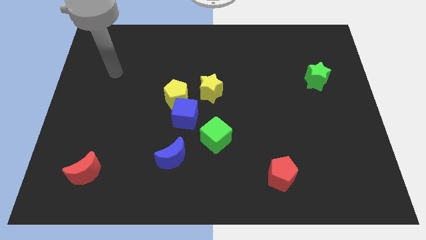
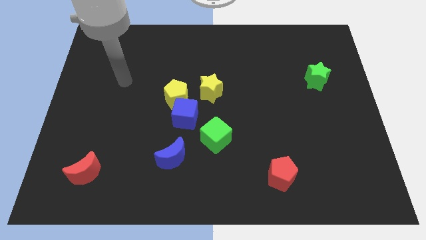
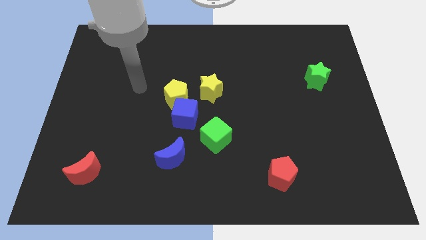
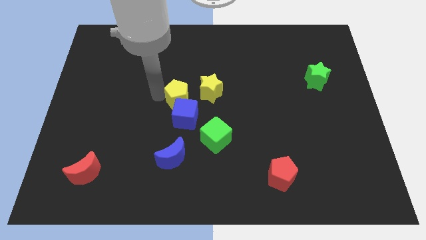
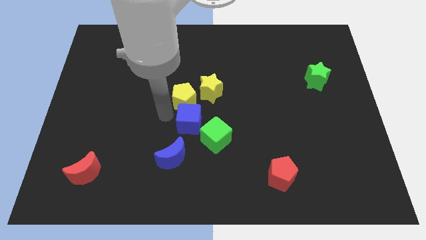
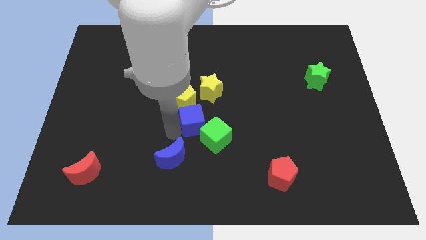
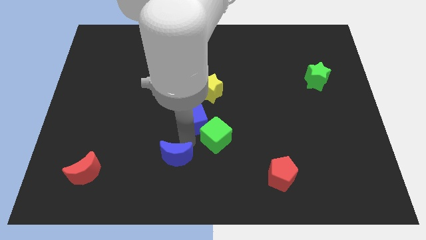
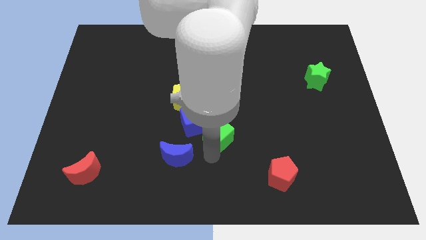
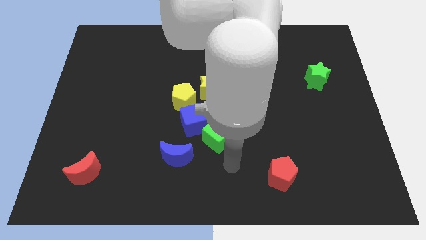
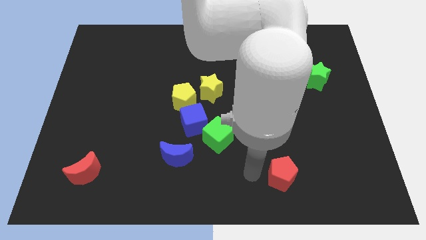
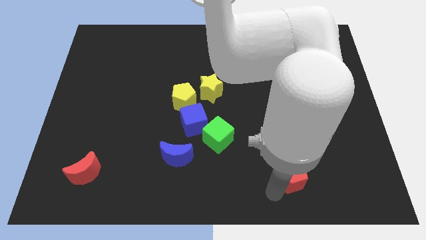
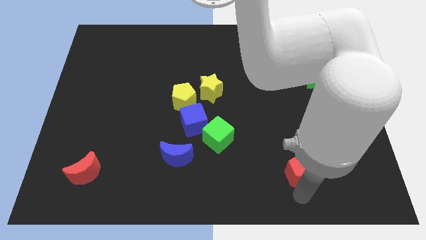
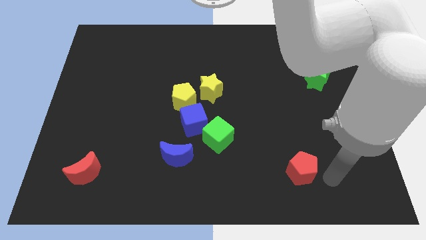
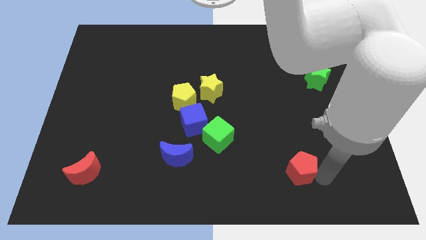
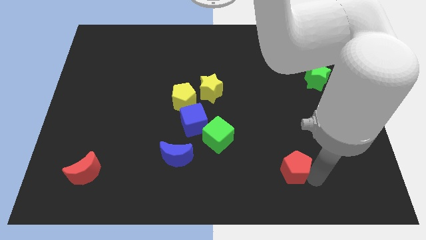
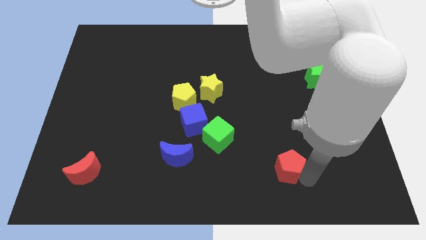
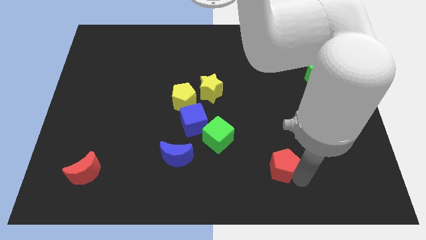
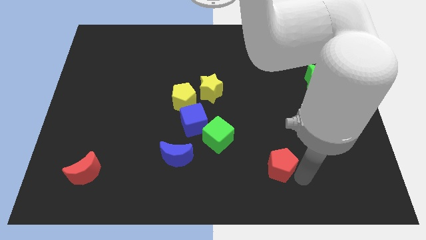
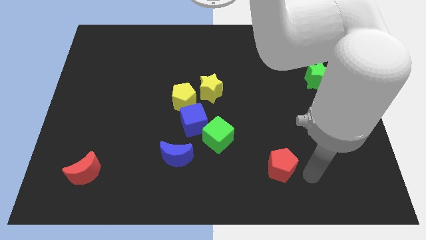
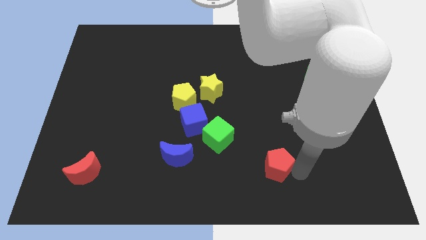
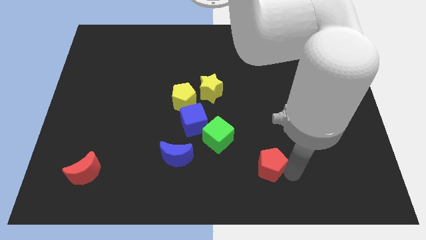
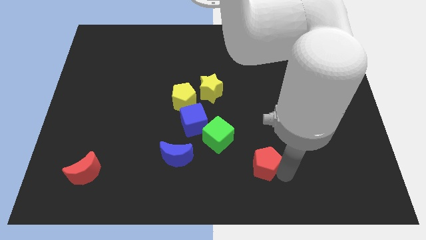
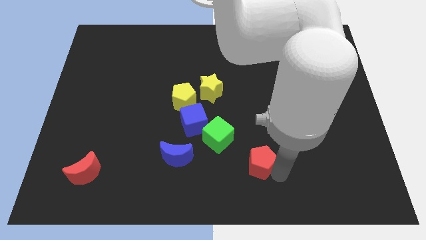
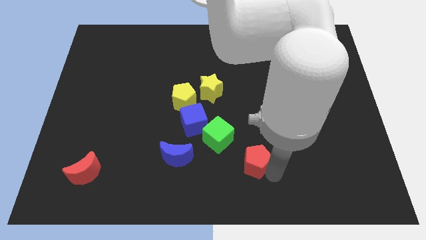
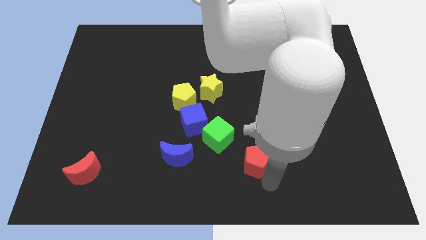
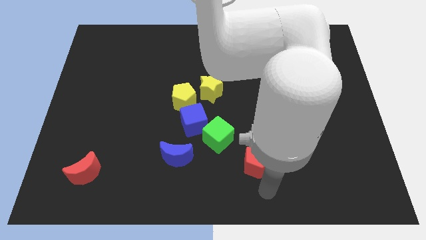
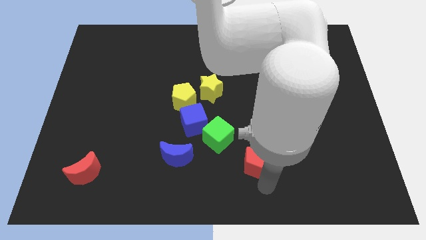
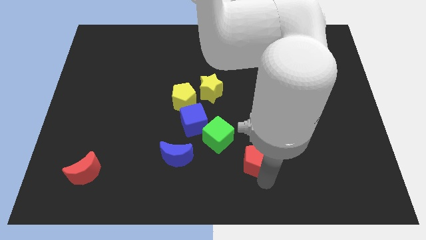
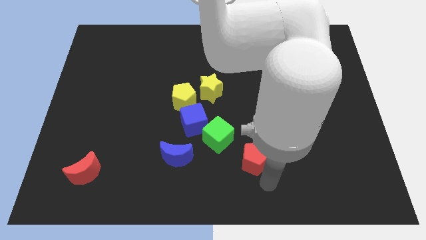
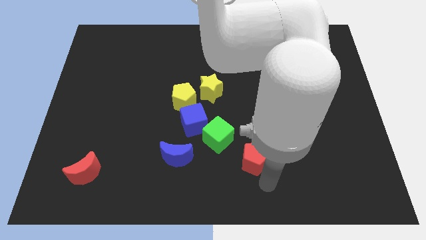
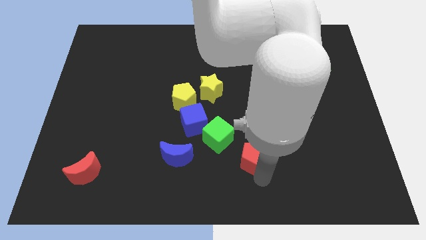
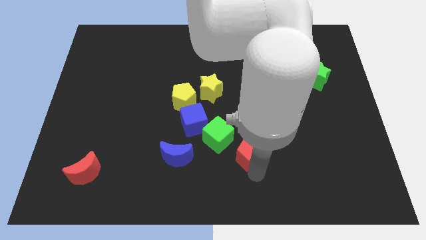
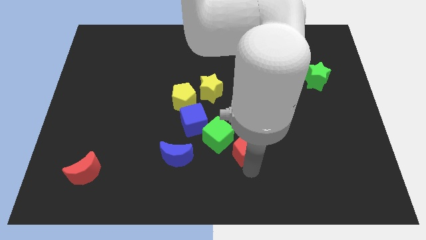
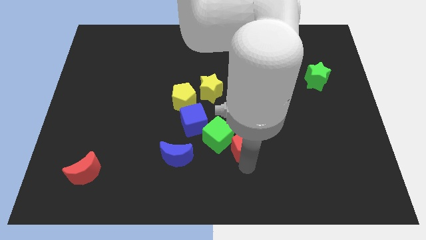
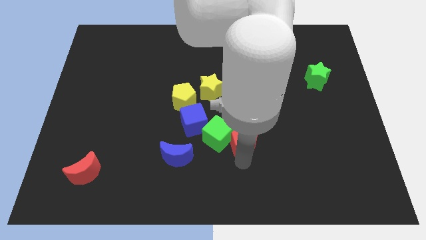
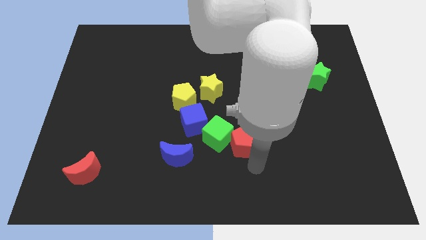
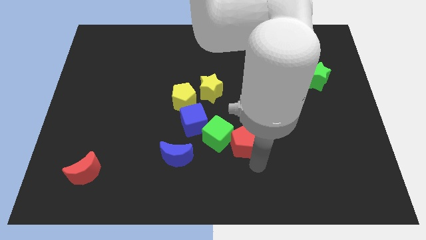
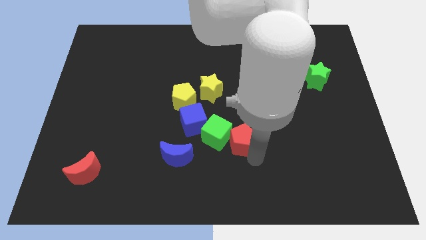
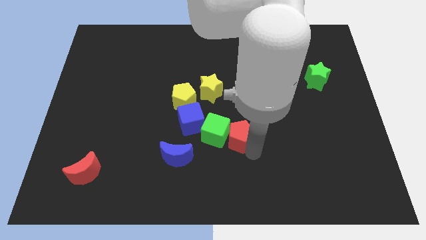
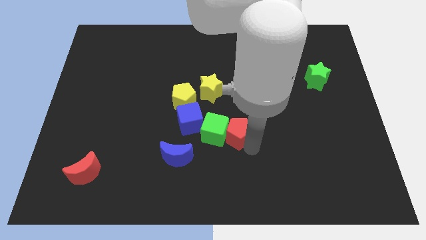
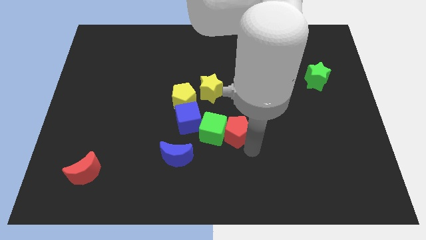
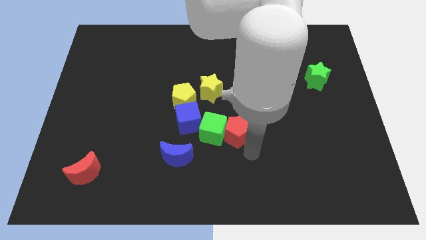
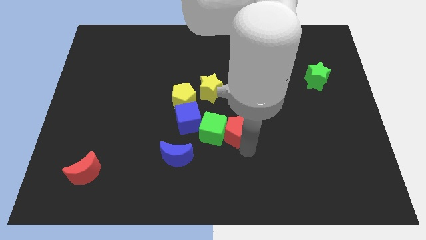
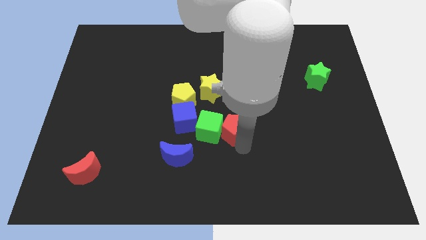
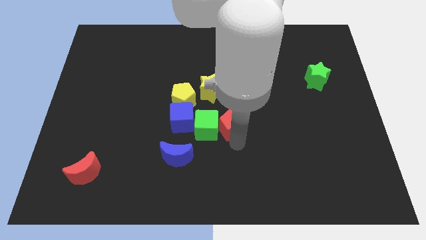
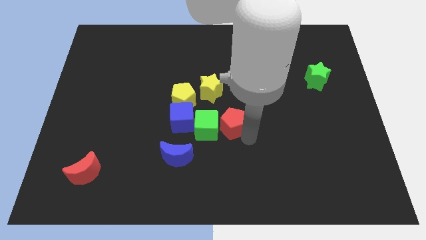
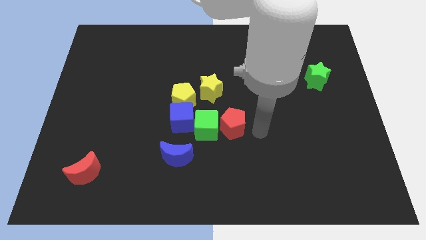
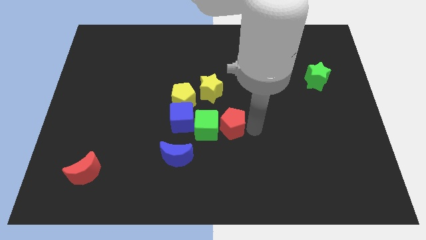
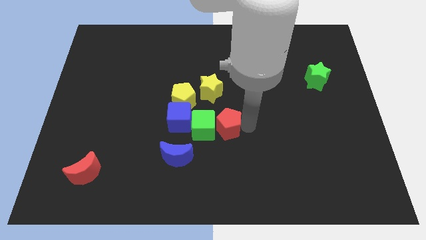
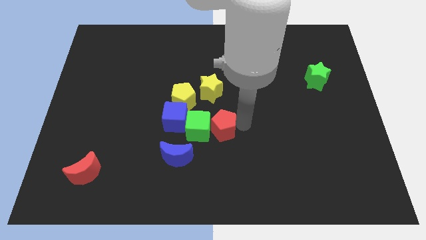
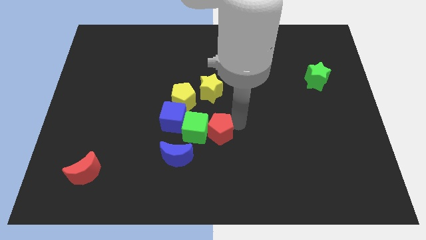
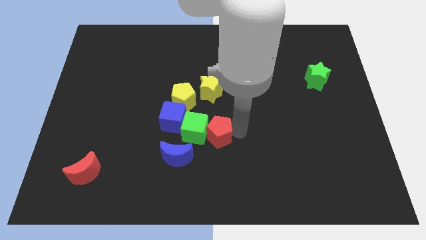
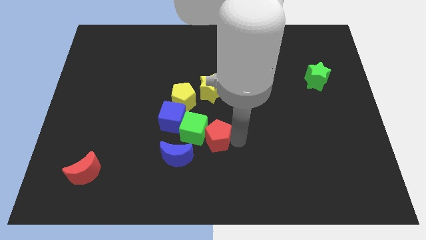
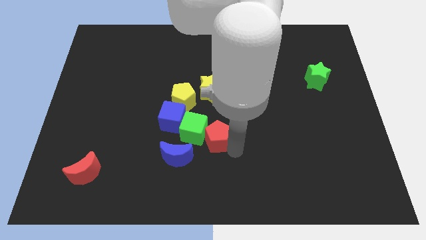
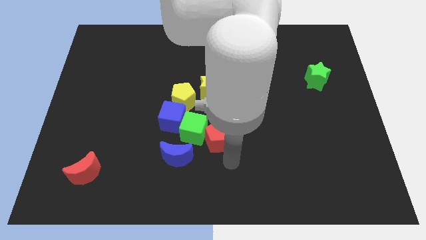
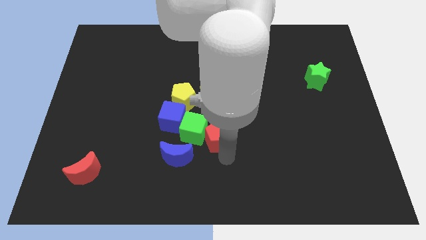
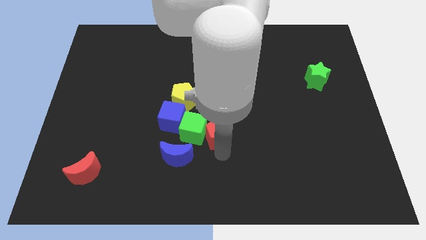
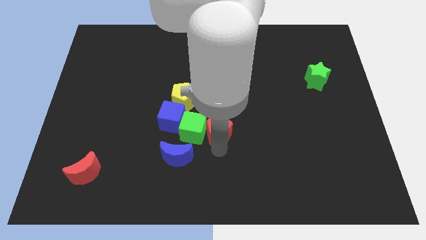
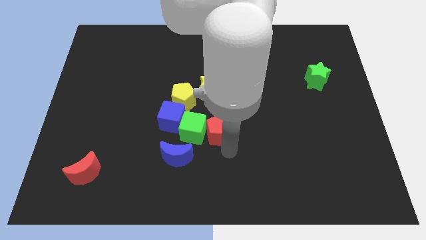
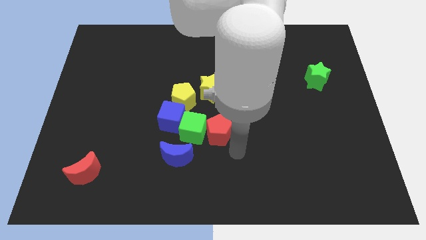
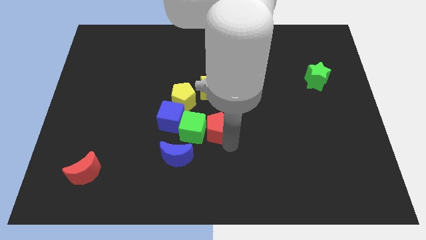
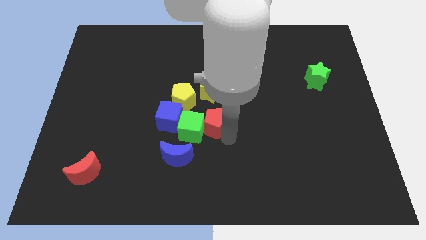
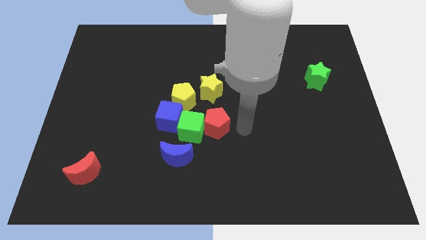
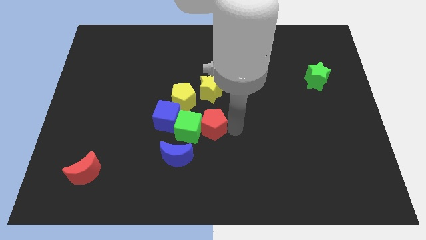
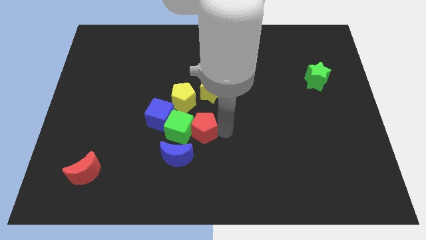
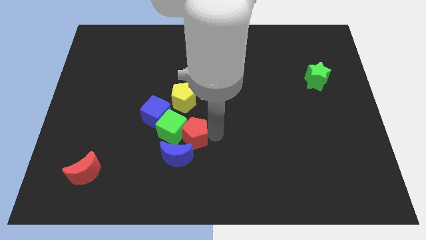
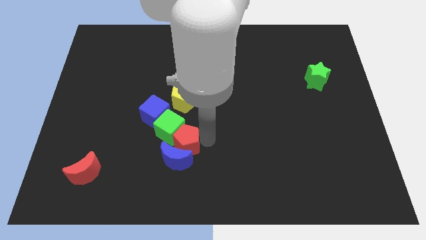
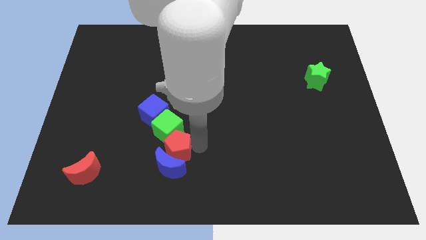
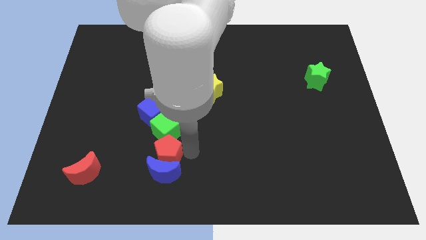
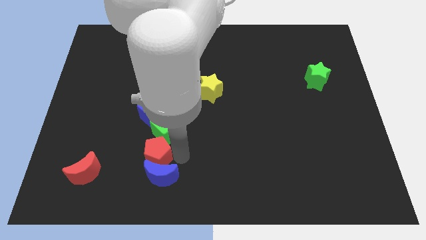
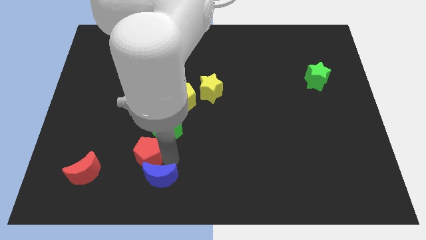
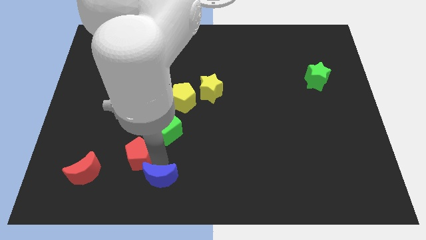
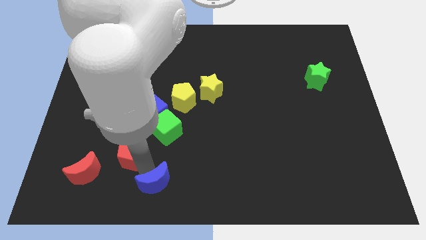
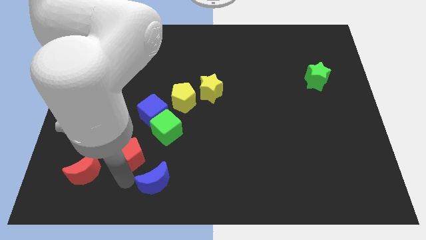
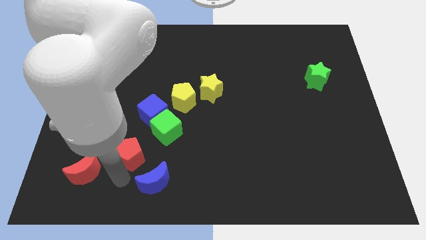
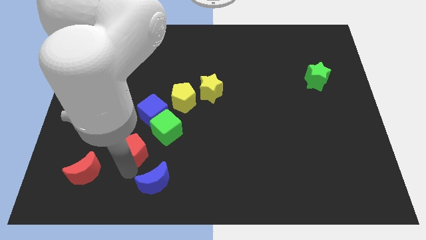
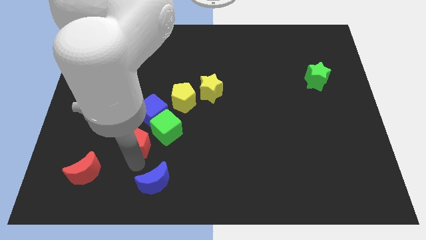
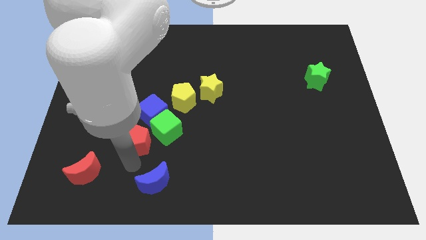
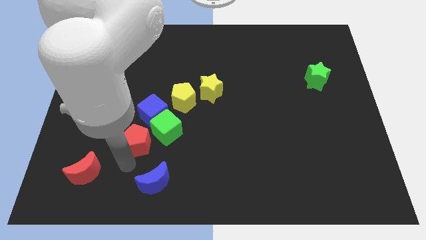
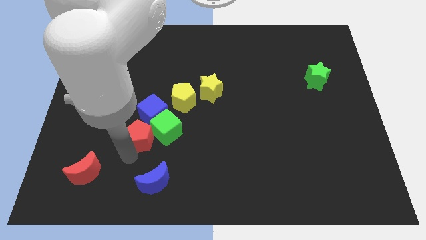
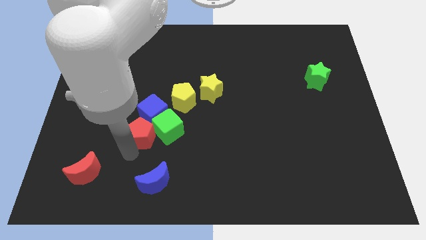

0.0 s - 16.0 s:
push the red pentagon towards the blue cube
